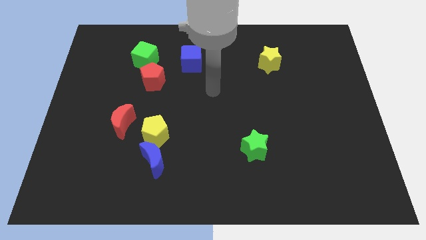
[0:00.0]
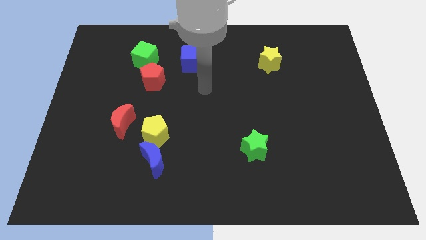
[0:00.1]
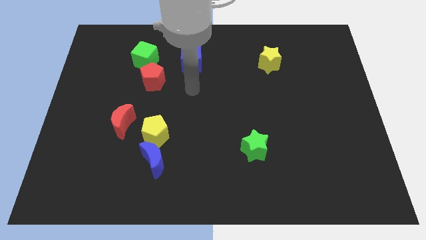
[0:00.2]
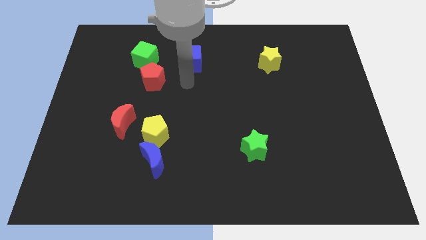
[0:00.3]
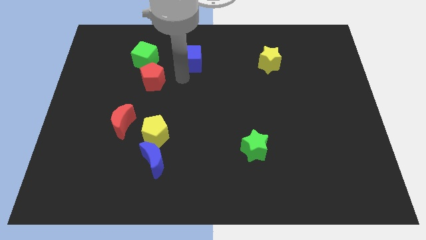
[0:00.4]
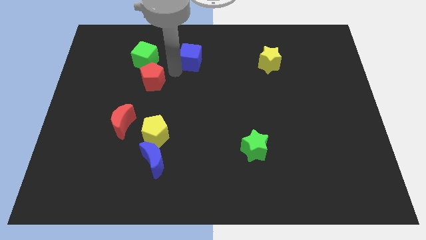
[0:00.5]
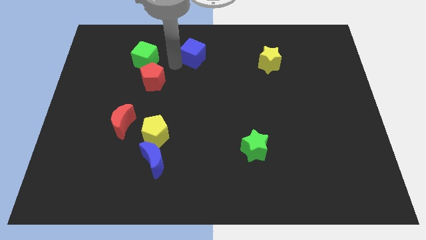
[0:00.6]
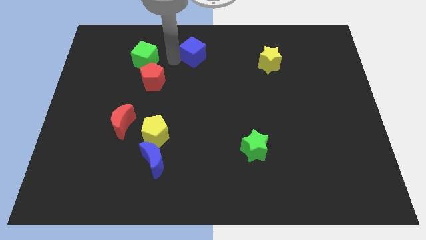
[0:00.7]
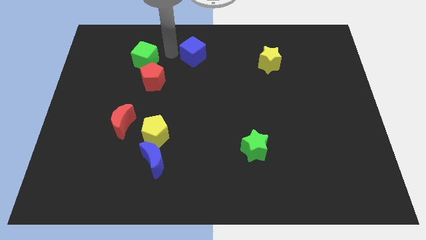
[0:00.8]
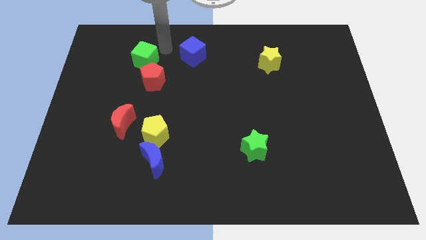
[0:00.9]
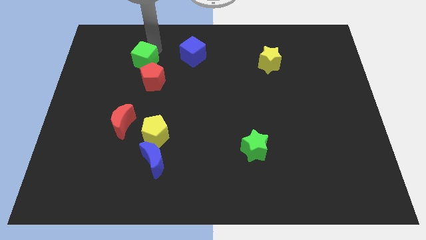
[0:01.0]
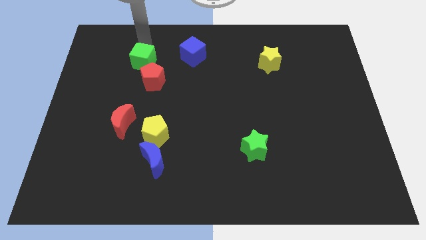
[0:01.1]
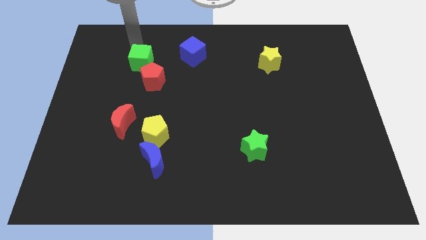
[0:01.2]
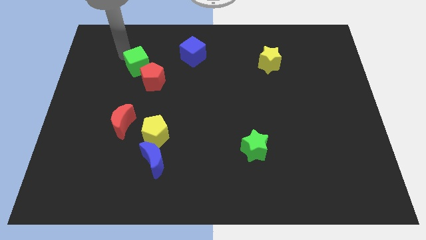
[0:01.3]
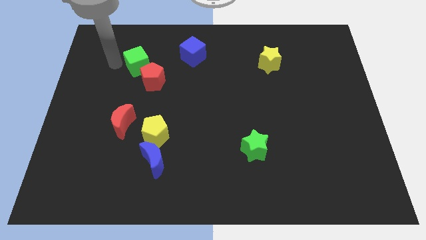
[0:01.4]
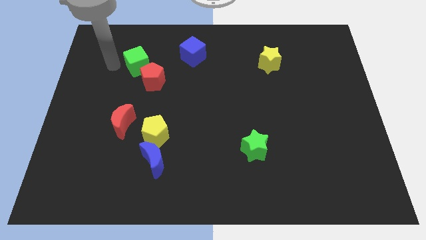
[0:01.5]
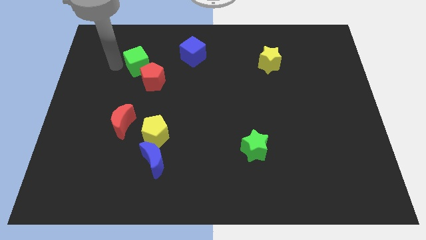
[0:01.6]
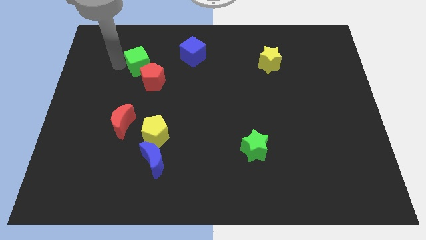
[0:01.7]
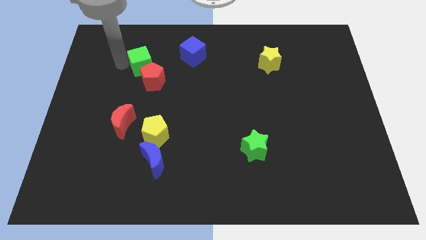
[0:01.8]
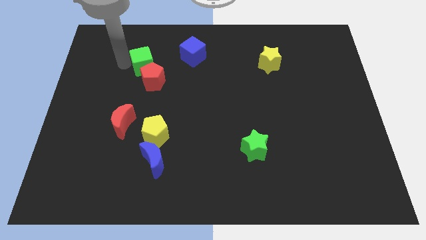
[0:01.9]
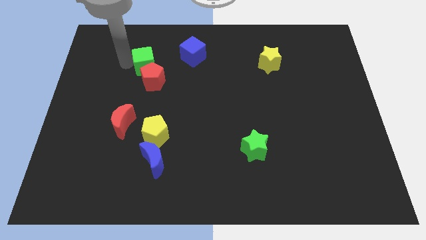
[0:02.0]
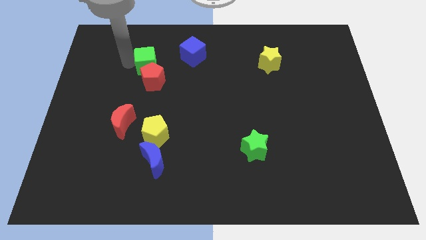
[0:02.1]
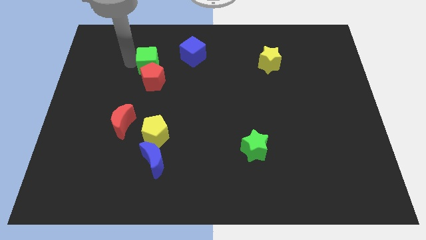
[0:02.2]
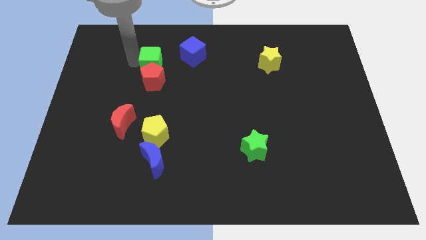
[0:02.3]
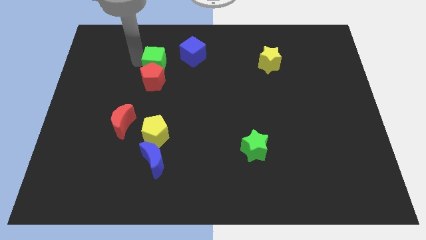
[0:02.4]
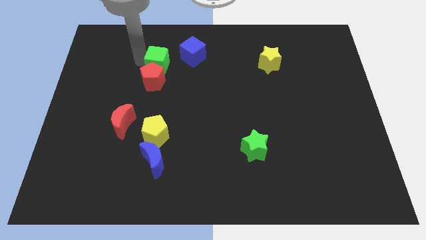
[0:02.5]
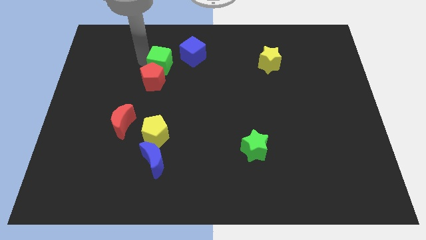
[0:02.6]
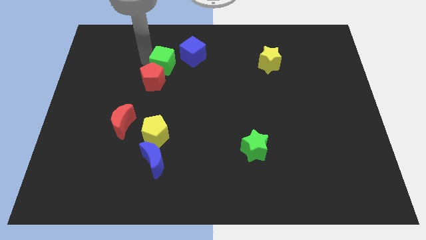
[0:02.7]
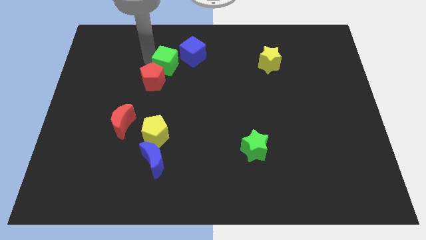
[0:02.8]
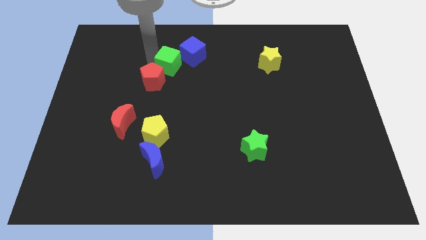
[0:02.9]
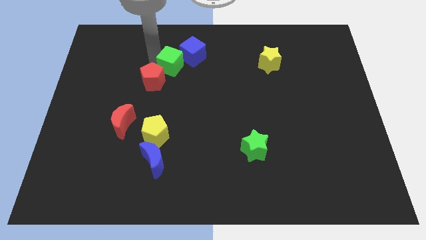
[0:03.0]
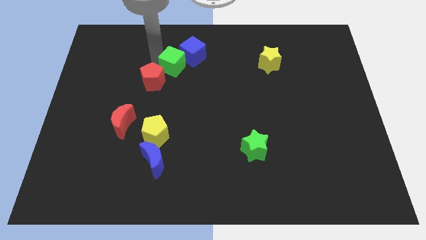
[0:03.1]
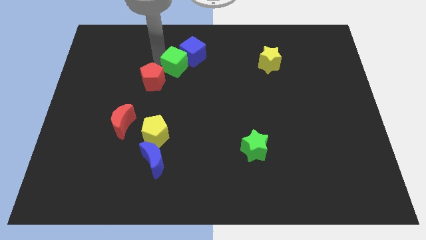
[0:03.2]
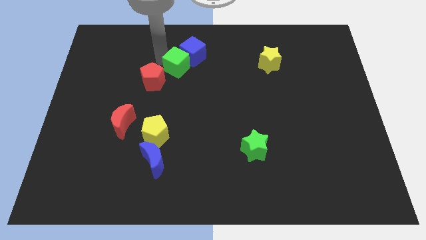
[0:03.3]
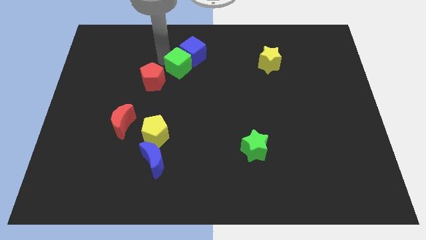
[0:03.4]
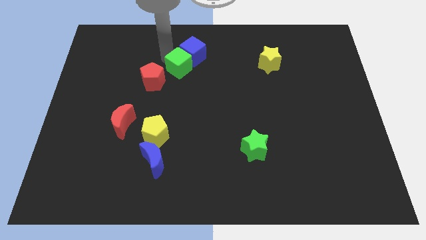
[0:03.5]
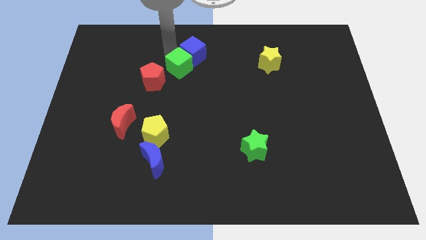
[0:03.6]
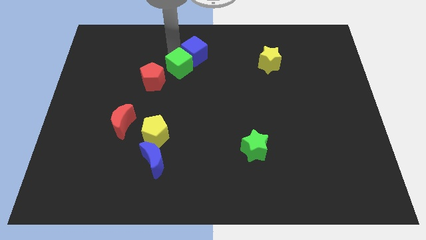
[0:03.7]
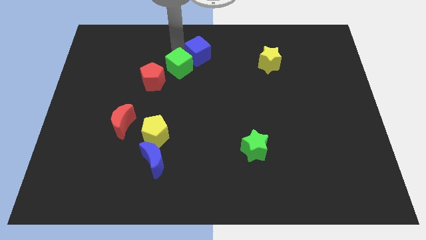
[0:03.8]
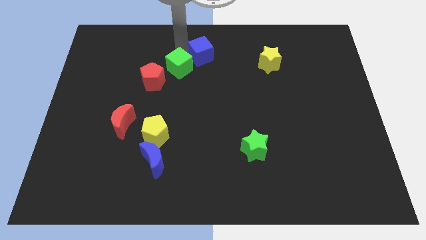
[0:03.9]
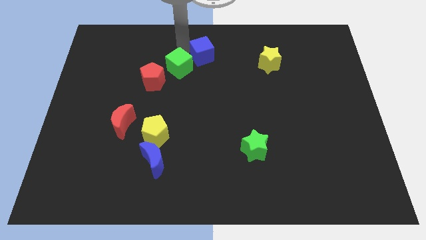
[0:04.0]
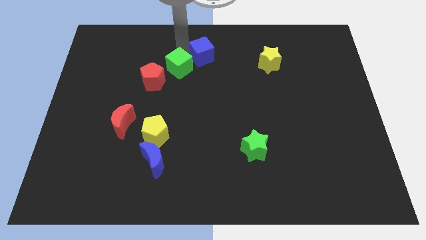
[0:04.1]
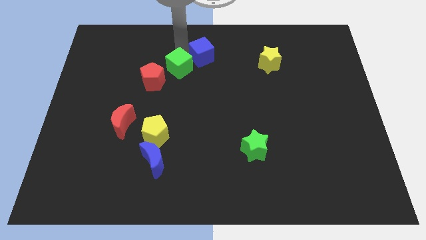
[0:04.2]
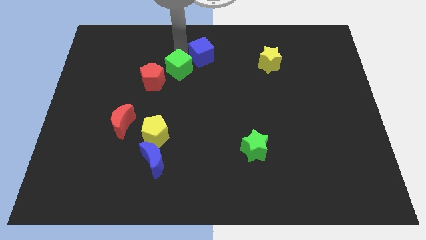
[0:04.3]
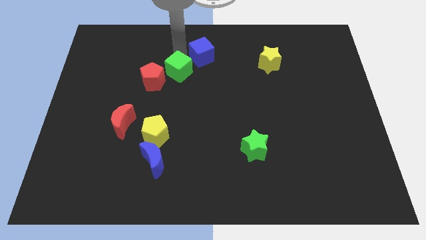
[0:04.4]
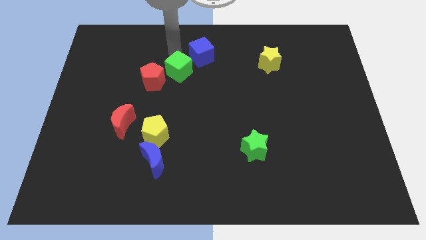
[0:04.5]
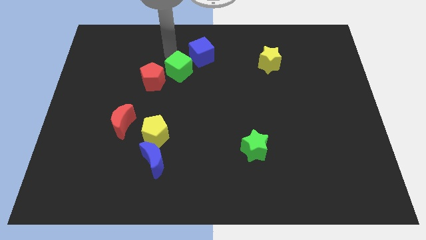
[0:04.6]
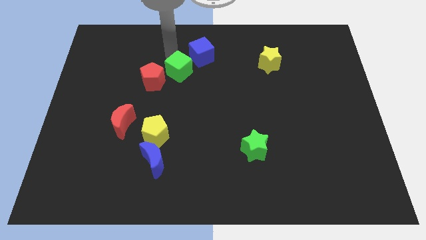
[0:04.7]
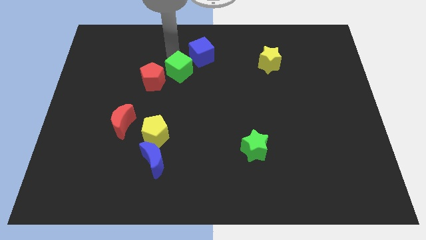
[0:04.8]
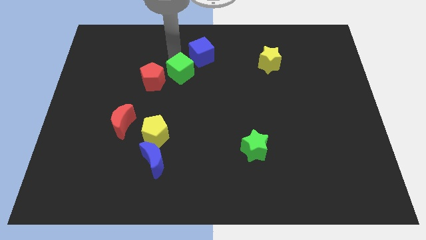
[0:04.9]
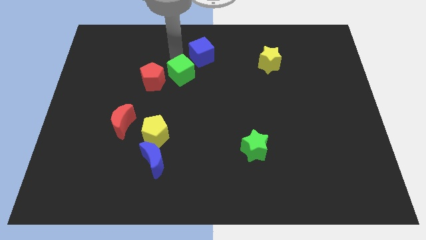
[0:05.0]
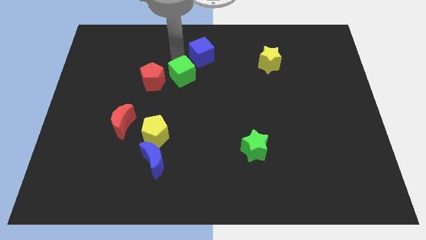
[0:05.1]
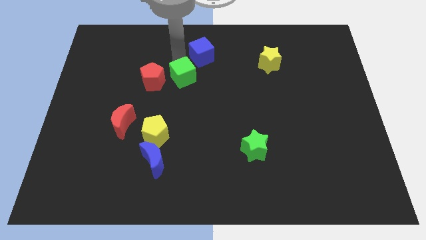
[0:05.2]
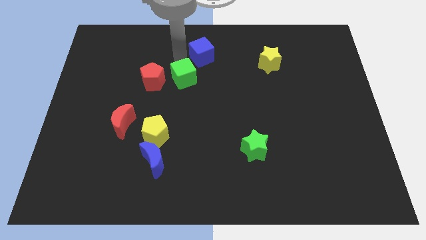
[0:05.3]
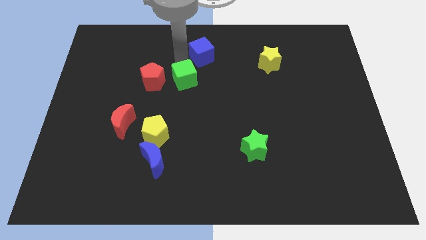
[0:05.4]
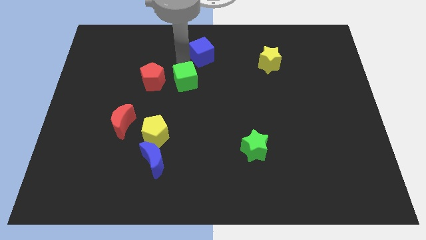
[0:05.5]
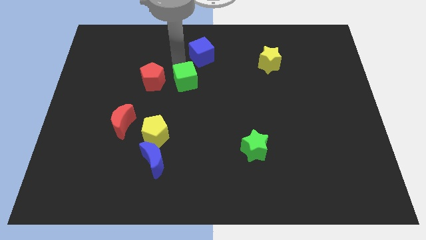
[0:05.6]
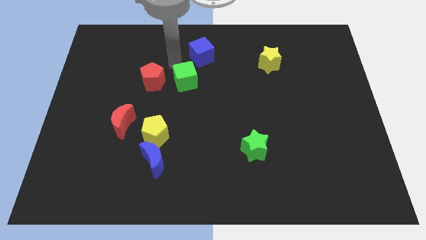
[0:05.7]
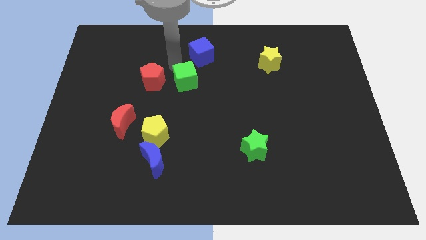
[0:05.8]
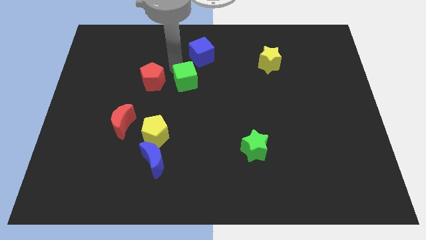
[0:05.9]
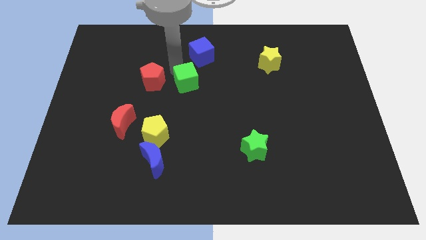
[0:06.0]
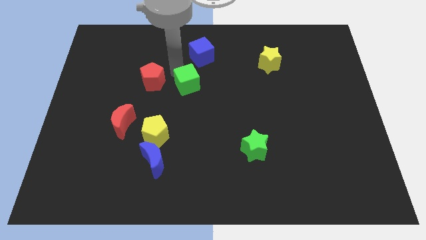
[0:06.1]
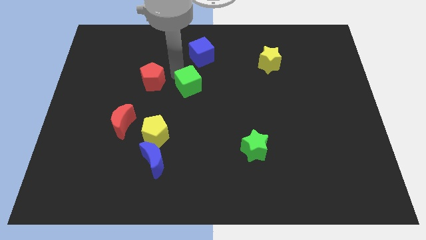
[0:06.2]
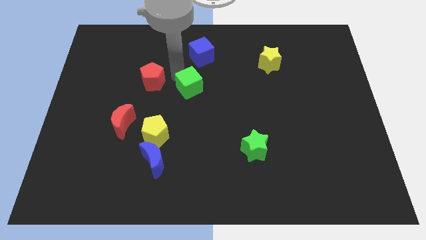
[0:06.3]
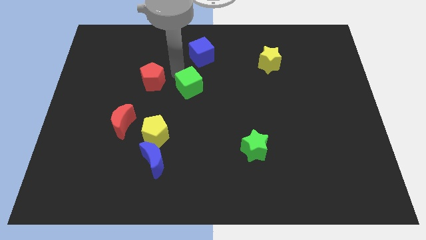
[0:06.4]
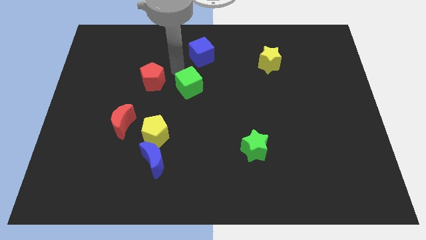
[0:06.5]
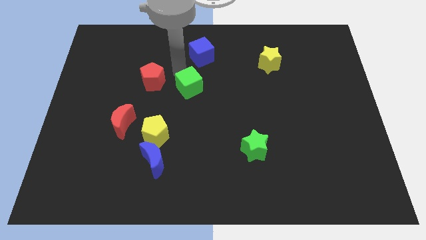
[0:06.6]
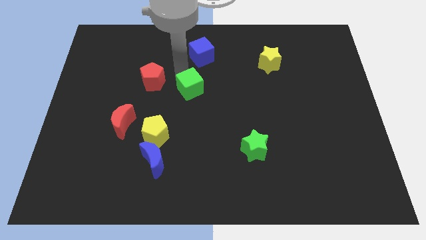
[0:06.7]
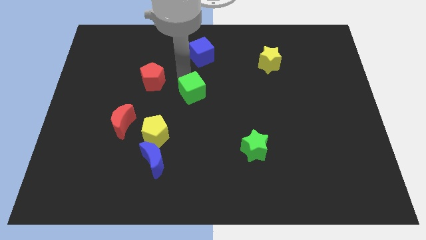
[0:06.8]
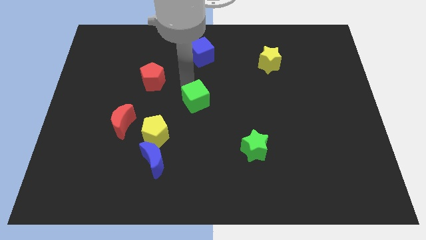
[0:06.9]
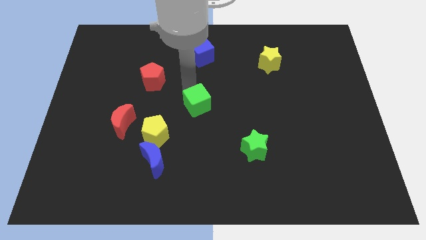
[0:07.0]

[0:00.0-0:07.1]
push the green cube downwards and to the right diagonally

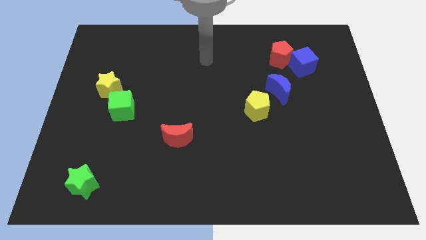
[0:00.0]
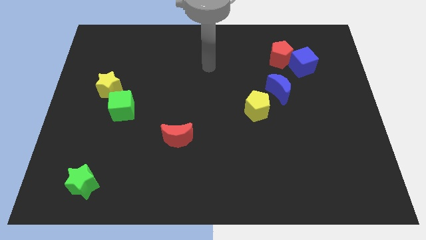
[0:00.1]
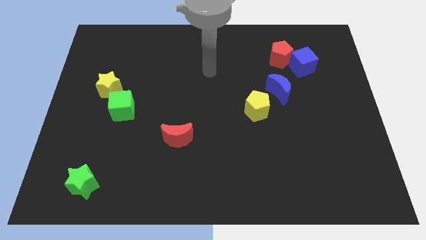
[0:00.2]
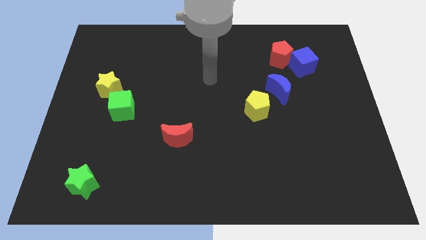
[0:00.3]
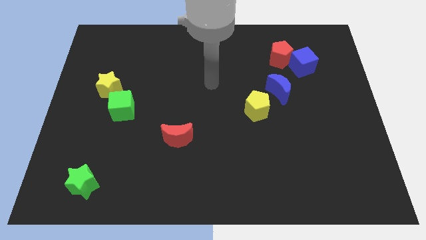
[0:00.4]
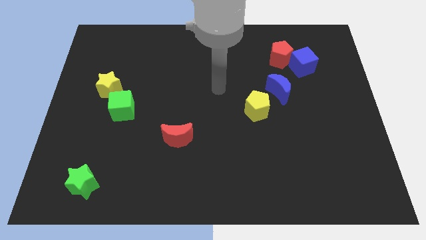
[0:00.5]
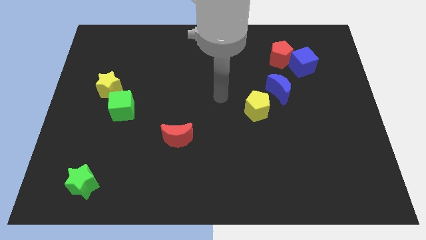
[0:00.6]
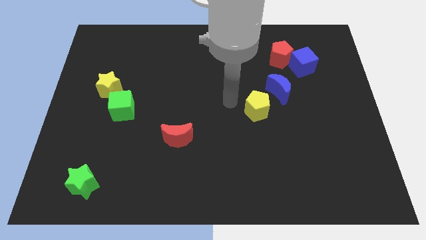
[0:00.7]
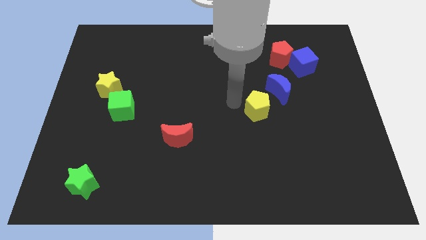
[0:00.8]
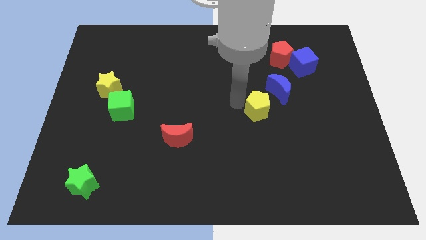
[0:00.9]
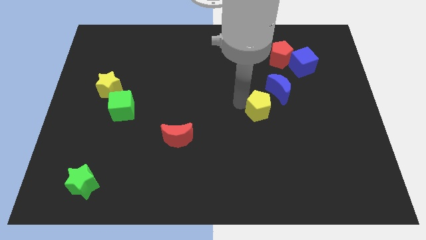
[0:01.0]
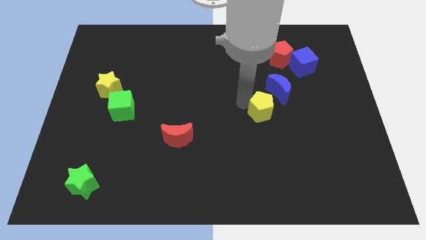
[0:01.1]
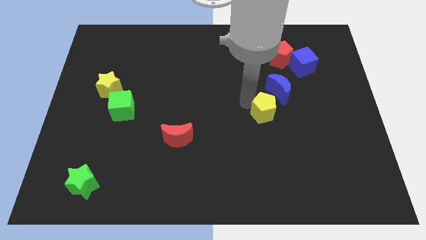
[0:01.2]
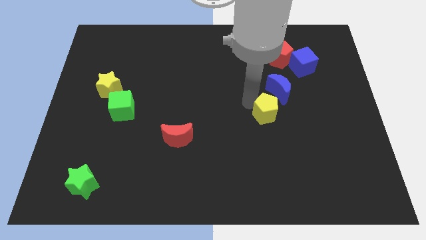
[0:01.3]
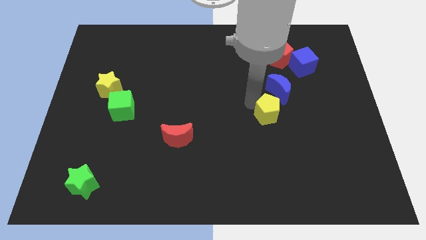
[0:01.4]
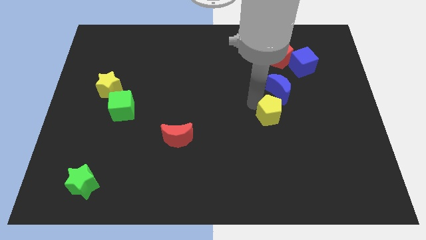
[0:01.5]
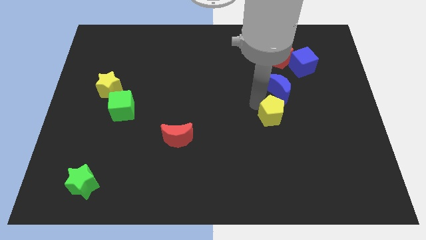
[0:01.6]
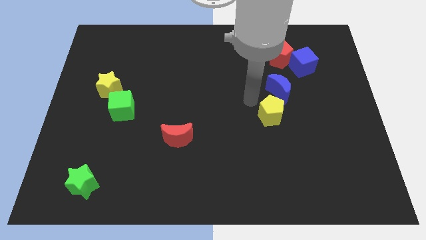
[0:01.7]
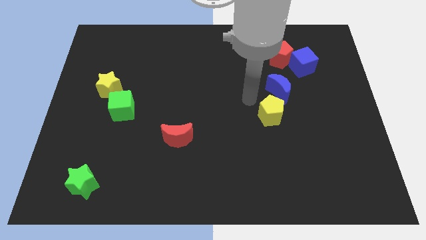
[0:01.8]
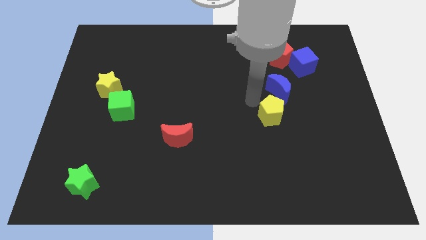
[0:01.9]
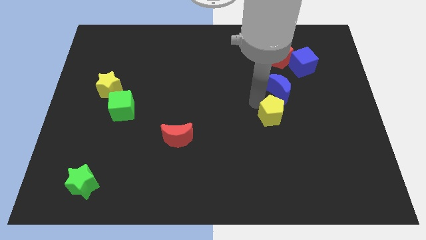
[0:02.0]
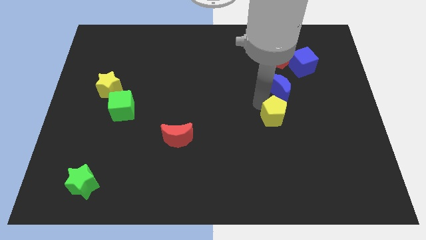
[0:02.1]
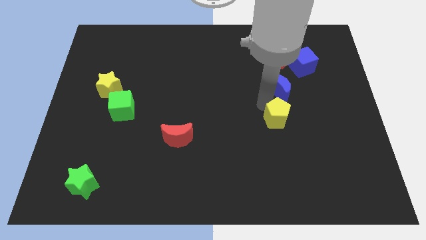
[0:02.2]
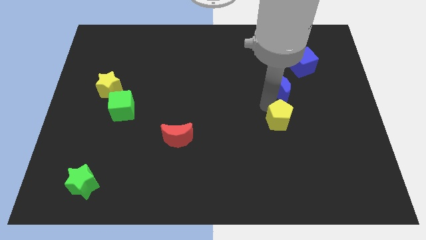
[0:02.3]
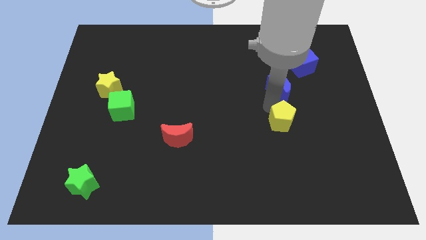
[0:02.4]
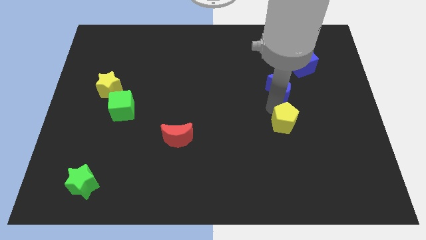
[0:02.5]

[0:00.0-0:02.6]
push the yellow pentagon down and then to the right slightly
